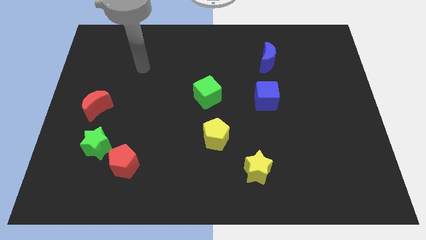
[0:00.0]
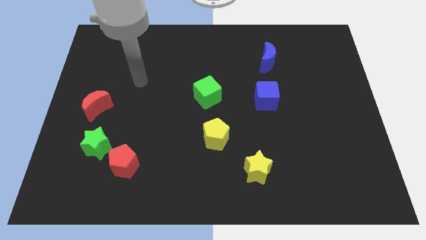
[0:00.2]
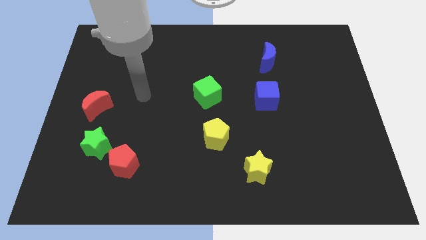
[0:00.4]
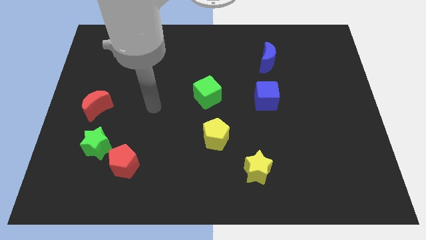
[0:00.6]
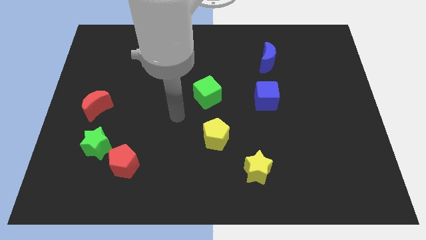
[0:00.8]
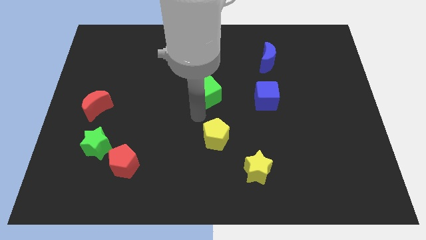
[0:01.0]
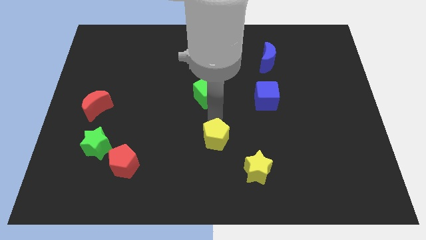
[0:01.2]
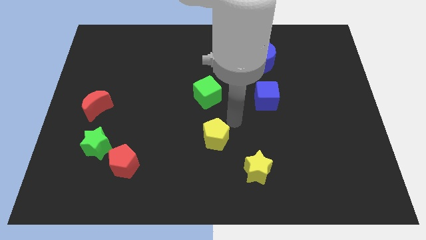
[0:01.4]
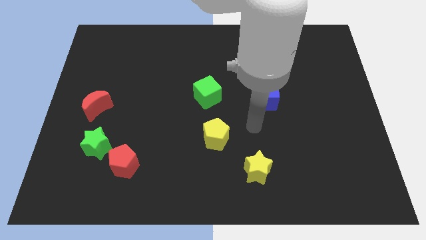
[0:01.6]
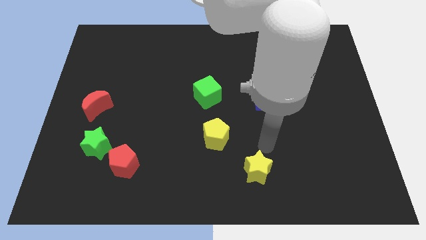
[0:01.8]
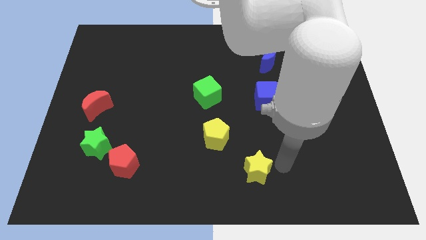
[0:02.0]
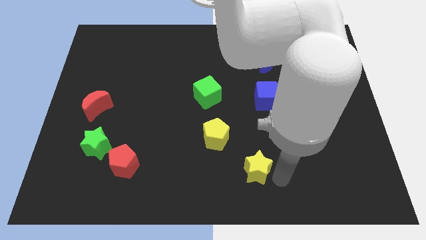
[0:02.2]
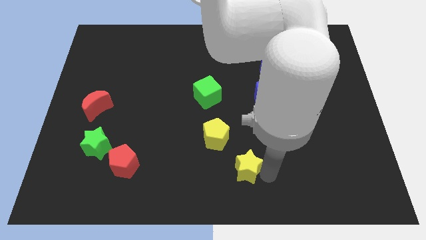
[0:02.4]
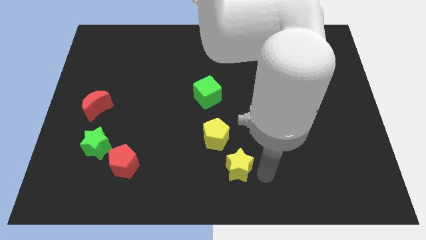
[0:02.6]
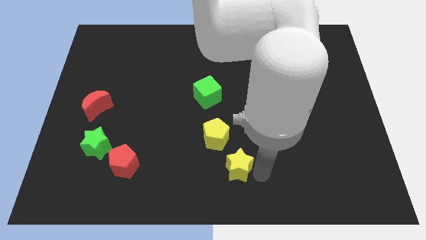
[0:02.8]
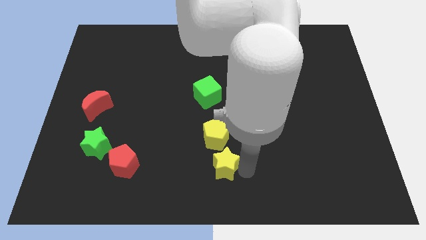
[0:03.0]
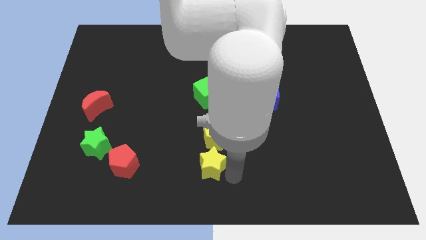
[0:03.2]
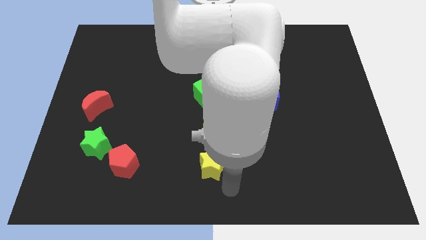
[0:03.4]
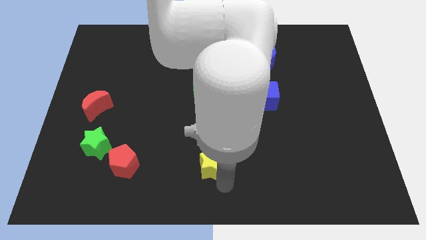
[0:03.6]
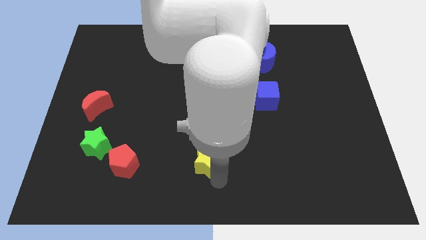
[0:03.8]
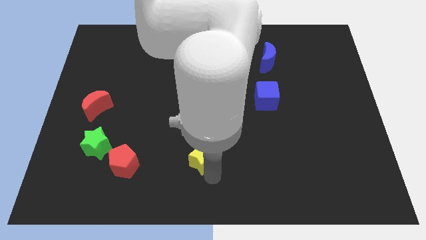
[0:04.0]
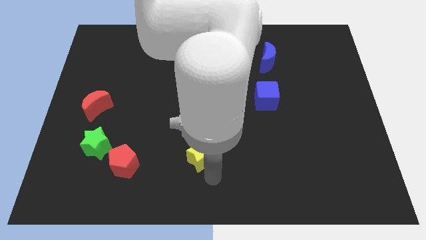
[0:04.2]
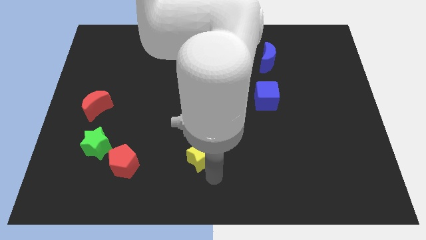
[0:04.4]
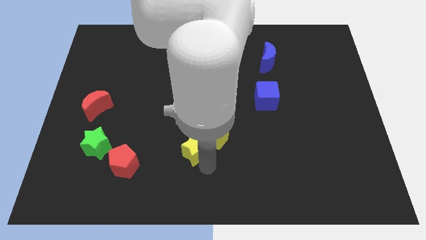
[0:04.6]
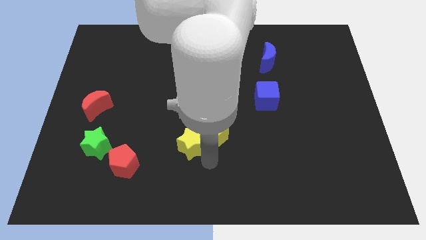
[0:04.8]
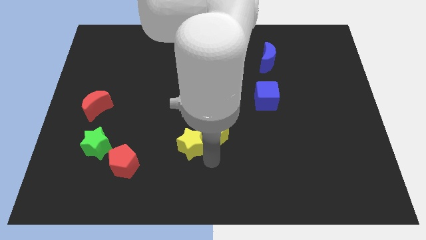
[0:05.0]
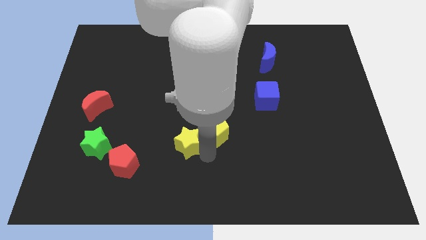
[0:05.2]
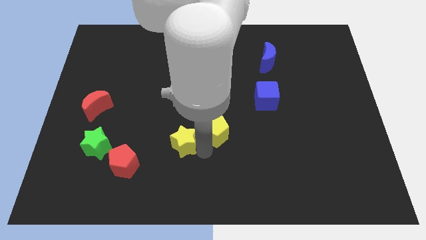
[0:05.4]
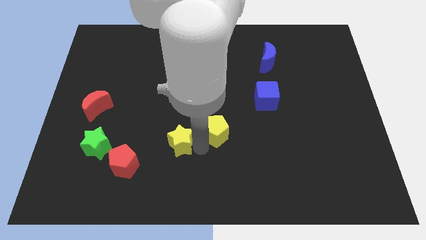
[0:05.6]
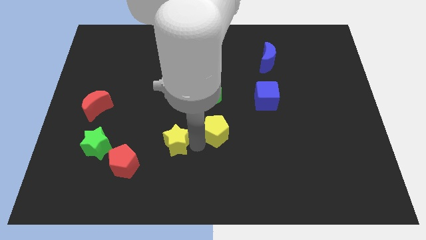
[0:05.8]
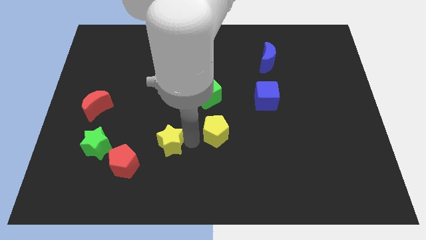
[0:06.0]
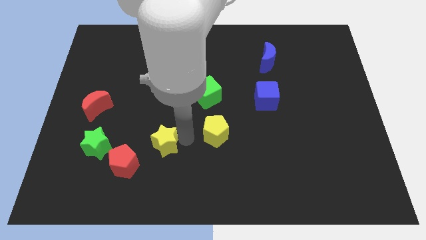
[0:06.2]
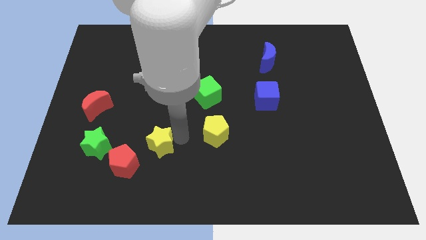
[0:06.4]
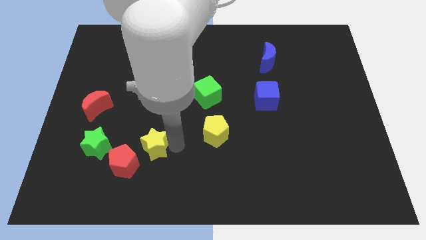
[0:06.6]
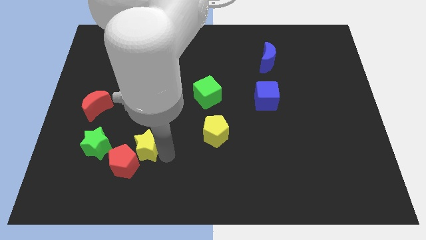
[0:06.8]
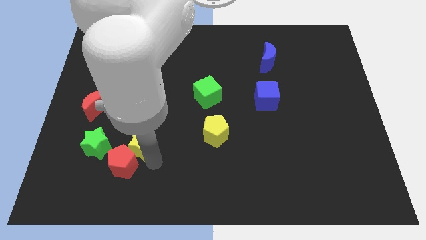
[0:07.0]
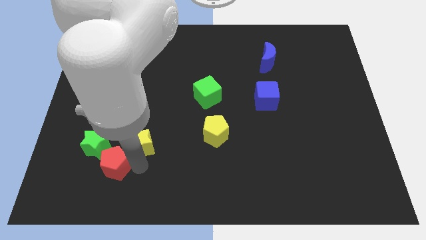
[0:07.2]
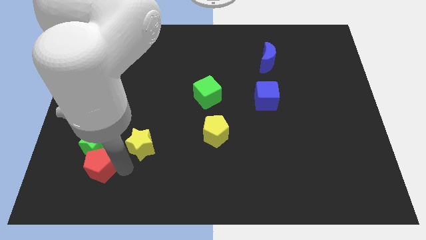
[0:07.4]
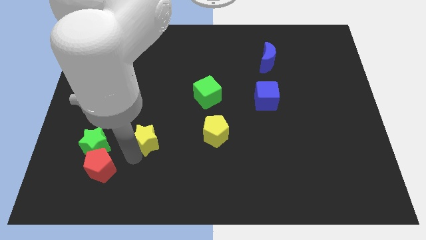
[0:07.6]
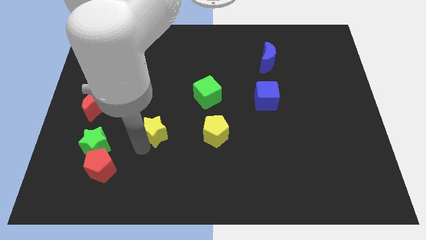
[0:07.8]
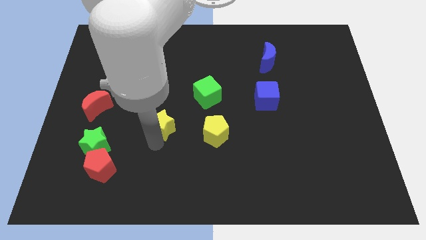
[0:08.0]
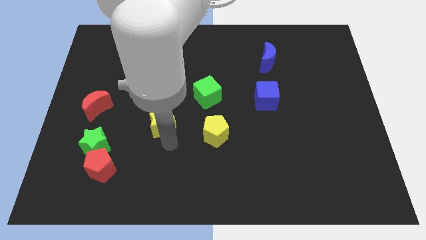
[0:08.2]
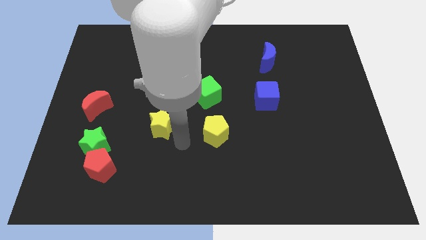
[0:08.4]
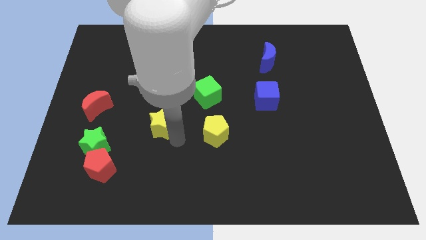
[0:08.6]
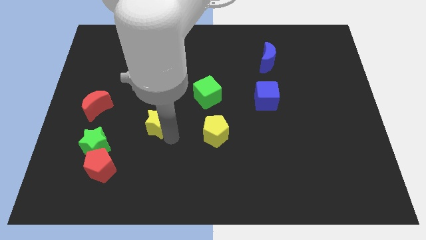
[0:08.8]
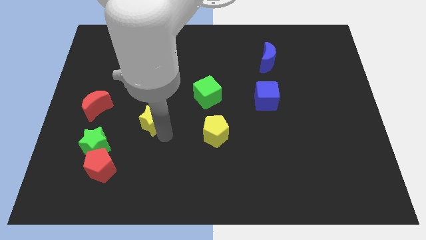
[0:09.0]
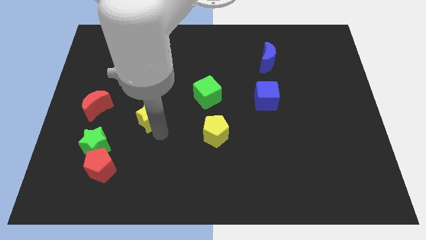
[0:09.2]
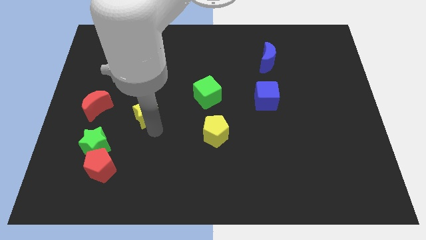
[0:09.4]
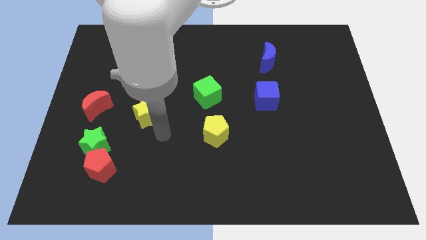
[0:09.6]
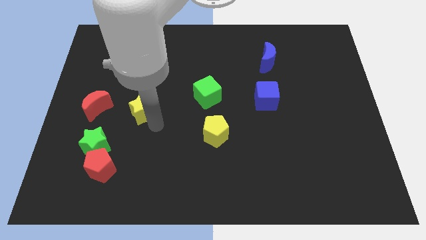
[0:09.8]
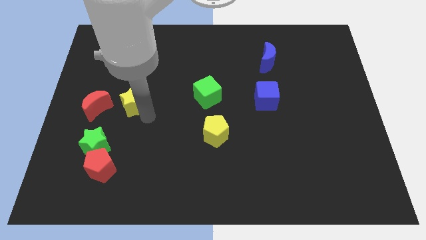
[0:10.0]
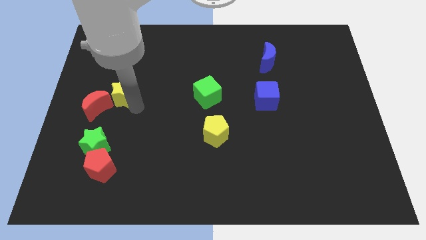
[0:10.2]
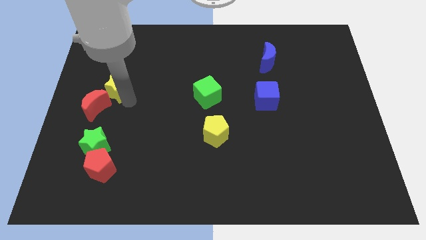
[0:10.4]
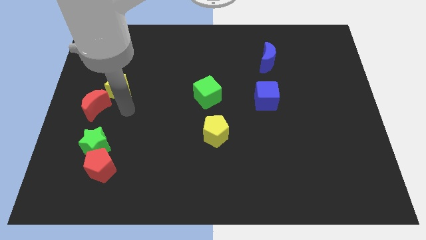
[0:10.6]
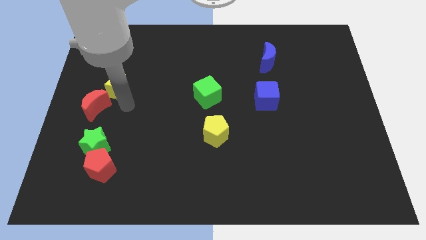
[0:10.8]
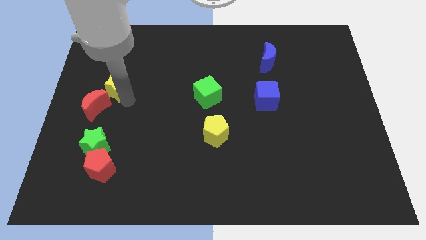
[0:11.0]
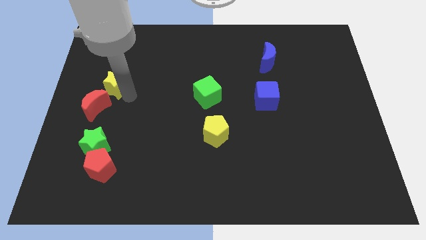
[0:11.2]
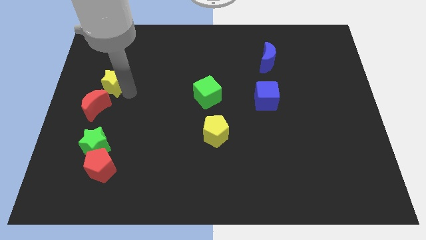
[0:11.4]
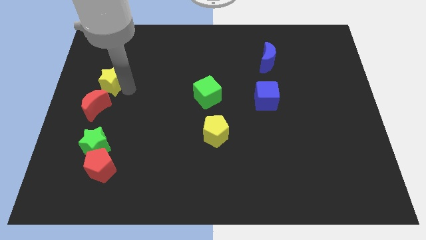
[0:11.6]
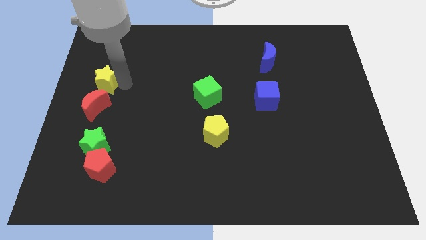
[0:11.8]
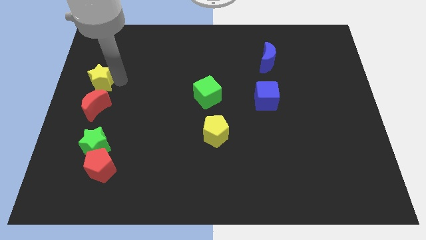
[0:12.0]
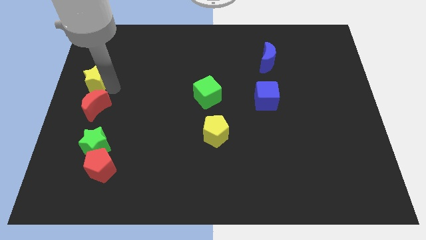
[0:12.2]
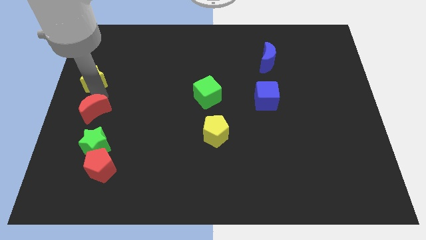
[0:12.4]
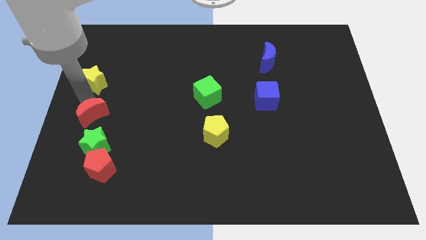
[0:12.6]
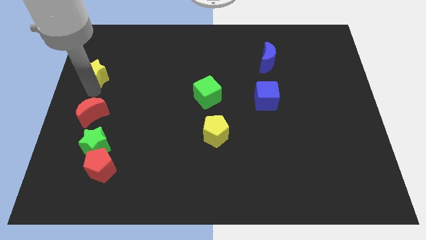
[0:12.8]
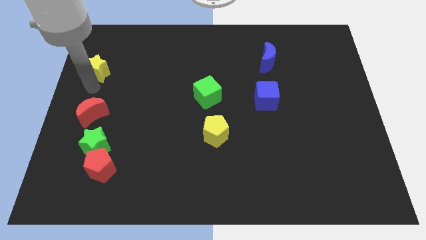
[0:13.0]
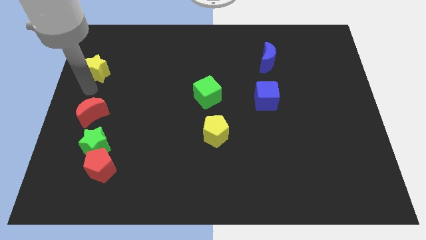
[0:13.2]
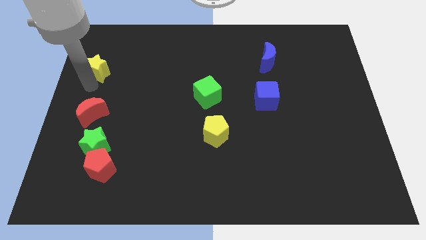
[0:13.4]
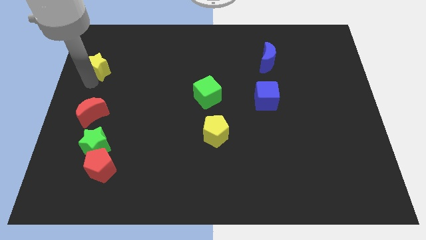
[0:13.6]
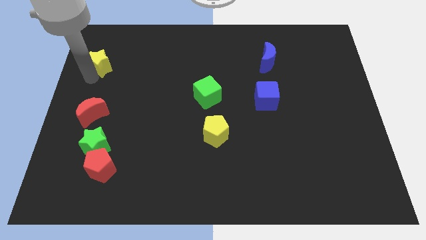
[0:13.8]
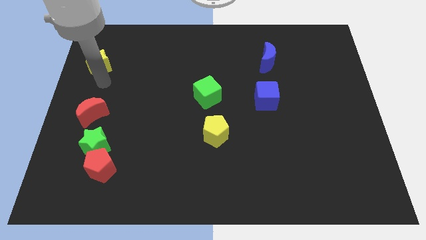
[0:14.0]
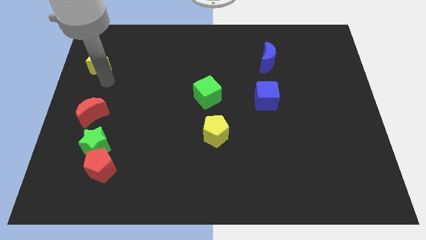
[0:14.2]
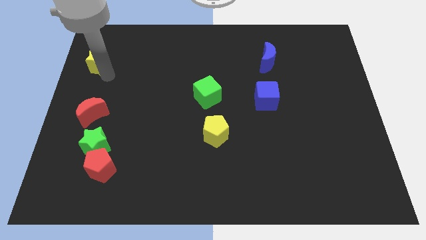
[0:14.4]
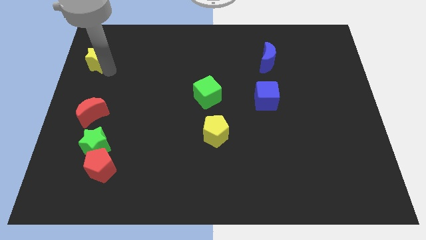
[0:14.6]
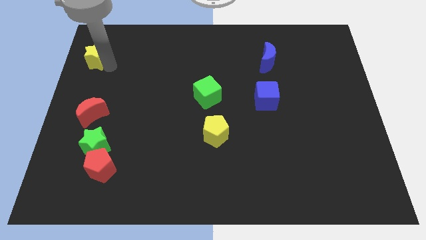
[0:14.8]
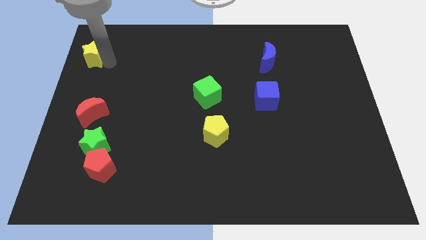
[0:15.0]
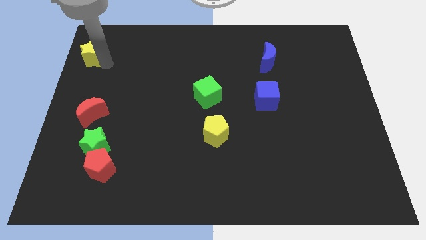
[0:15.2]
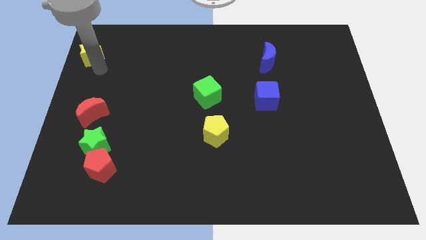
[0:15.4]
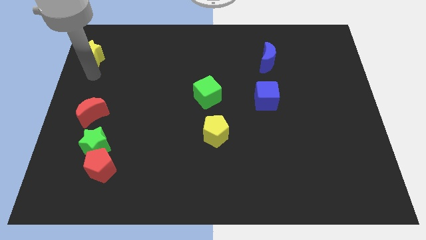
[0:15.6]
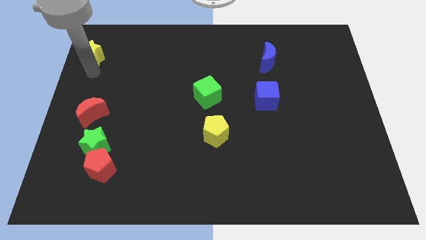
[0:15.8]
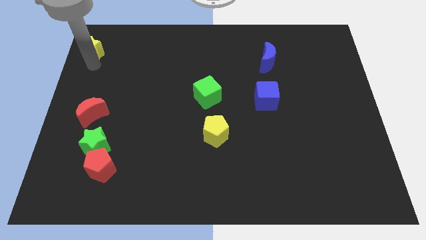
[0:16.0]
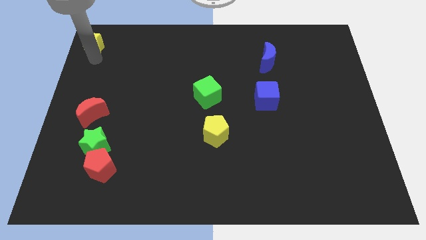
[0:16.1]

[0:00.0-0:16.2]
move the yellow star to the top left of the board
